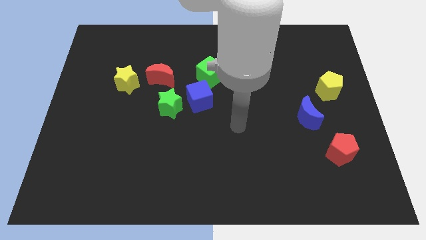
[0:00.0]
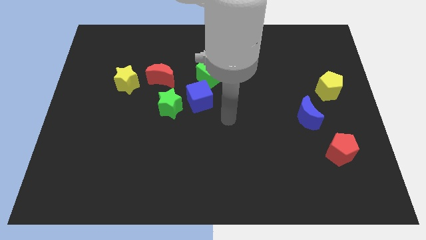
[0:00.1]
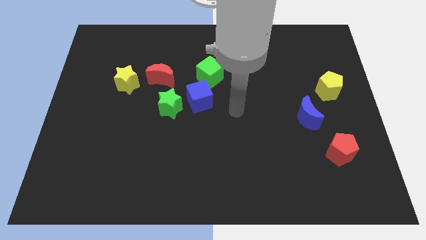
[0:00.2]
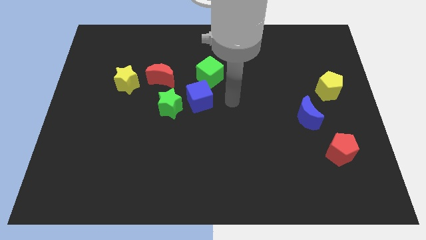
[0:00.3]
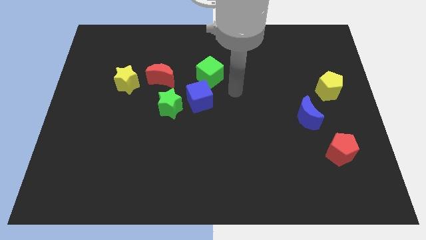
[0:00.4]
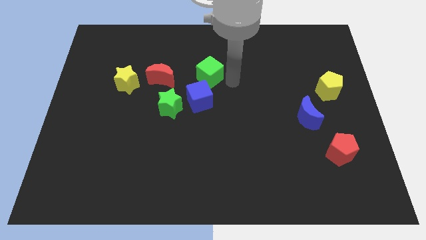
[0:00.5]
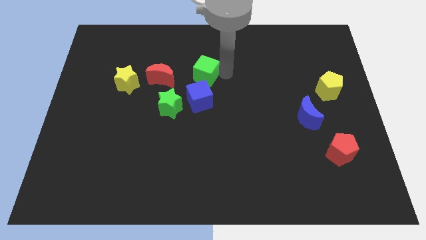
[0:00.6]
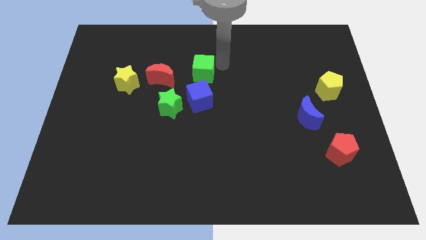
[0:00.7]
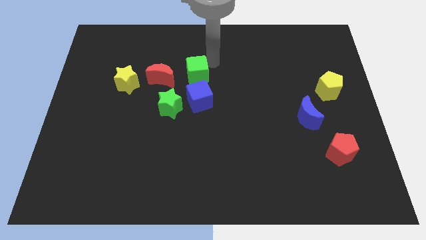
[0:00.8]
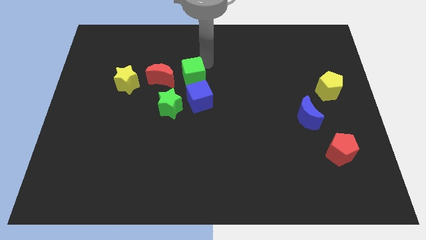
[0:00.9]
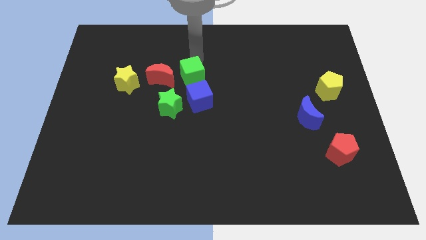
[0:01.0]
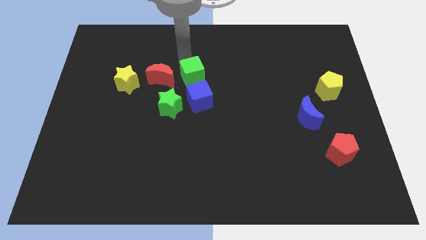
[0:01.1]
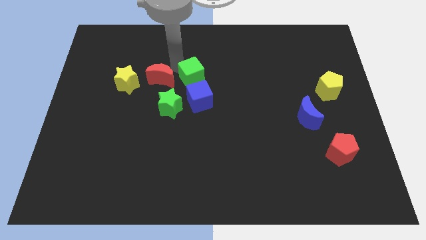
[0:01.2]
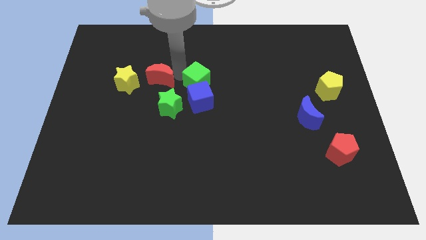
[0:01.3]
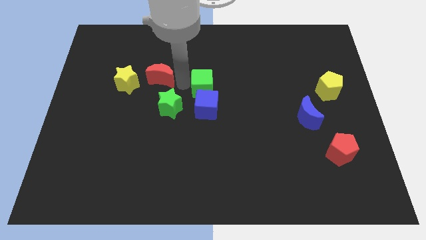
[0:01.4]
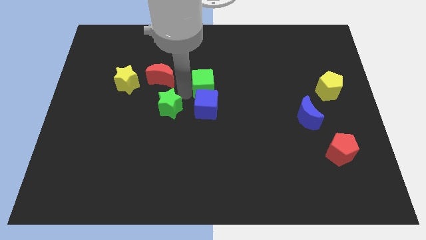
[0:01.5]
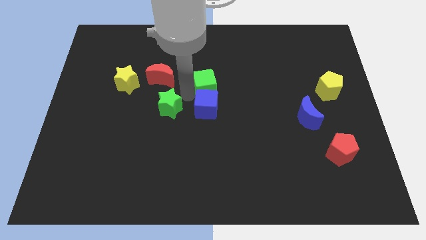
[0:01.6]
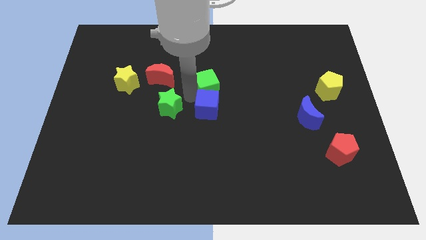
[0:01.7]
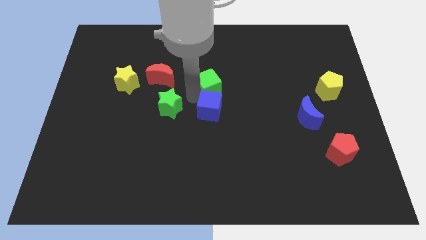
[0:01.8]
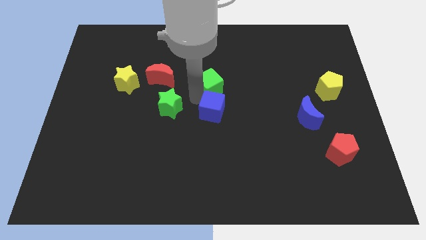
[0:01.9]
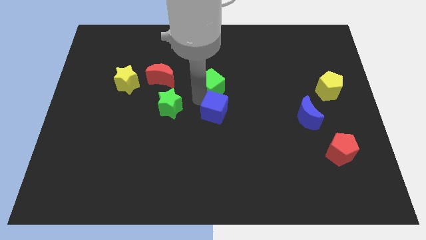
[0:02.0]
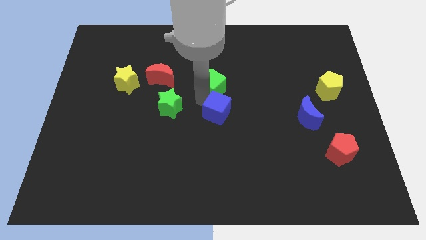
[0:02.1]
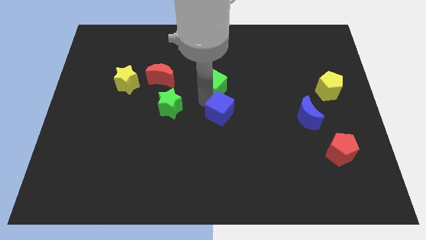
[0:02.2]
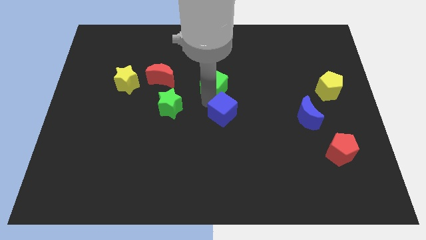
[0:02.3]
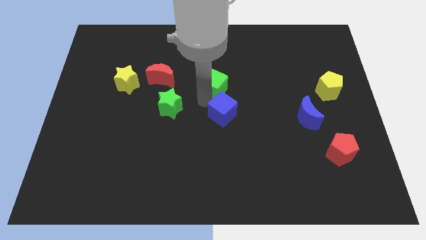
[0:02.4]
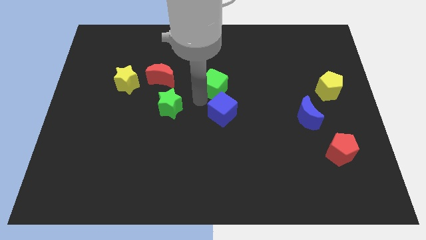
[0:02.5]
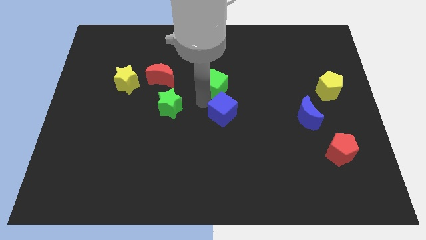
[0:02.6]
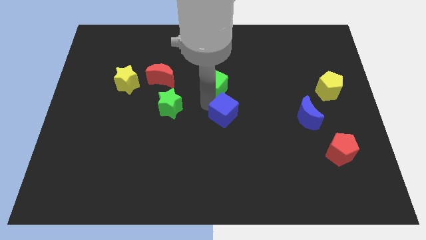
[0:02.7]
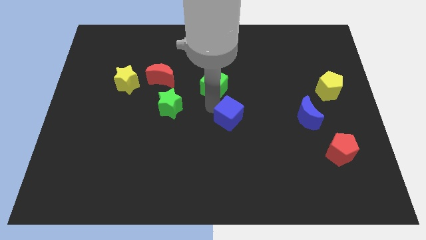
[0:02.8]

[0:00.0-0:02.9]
separate the blue cube from the green star and green cube

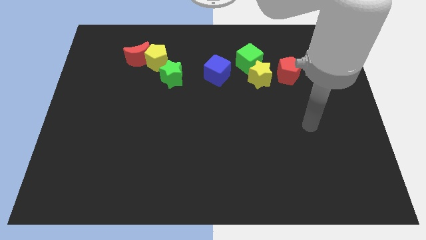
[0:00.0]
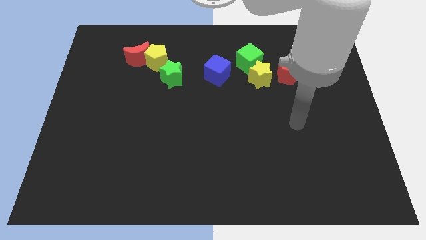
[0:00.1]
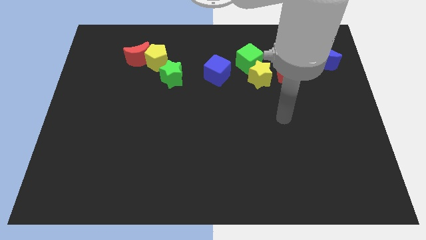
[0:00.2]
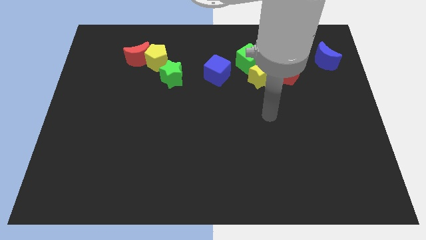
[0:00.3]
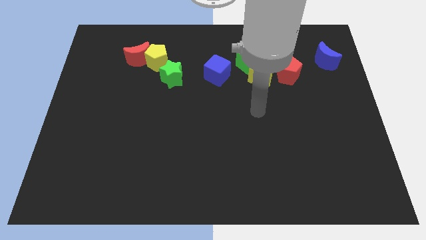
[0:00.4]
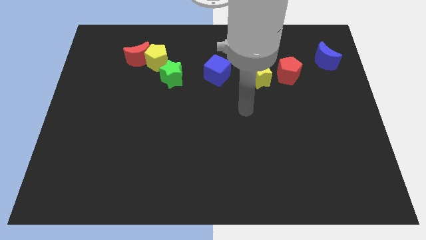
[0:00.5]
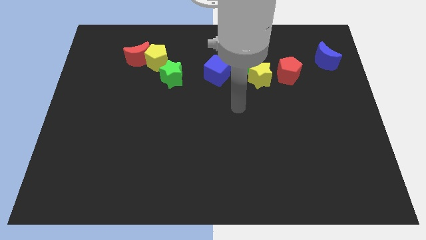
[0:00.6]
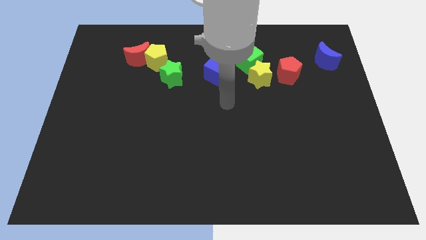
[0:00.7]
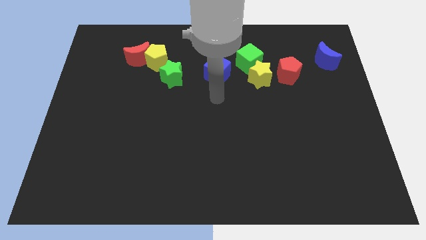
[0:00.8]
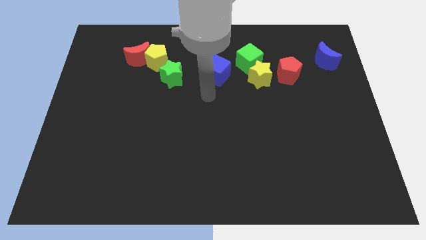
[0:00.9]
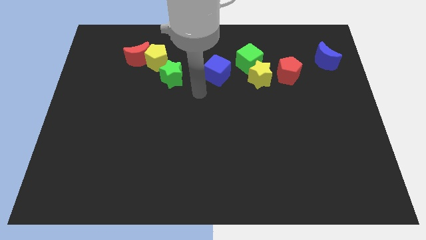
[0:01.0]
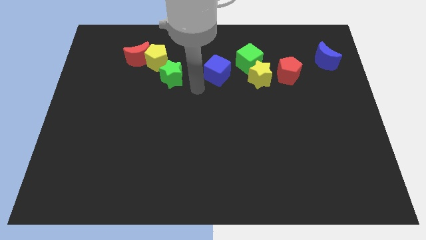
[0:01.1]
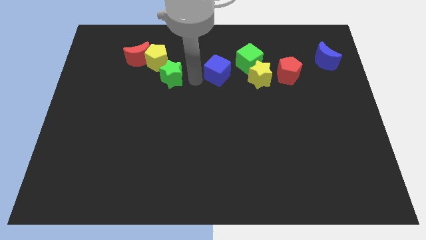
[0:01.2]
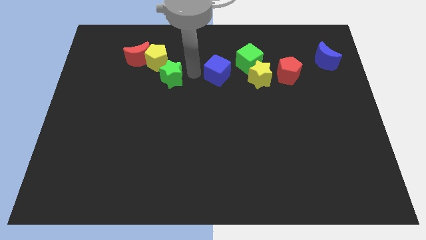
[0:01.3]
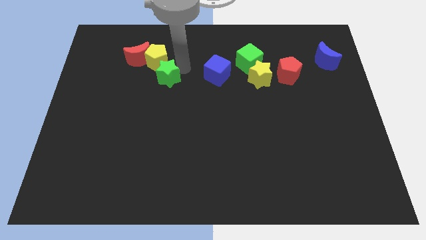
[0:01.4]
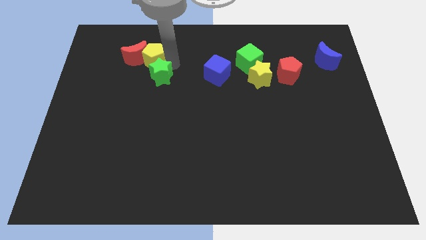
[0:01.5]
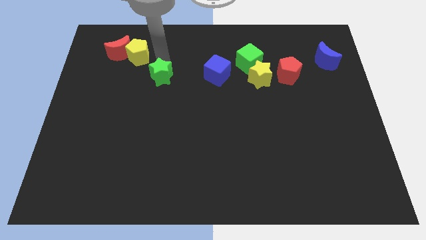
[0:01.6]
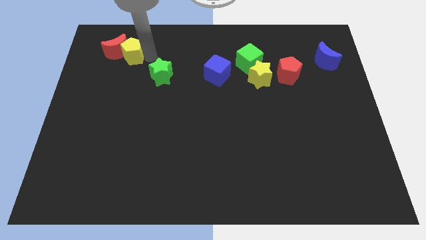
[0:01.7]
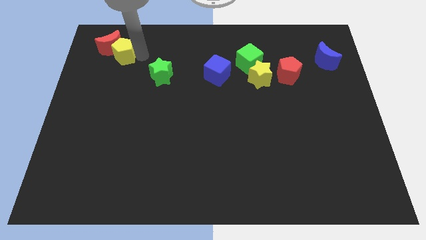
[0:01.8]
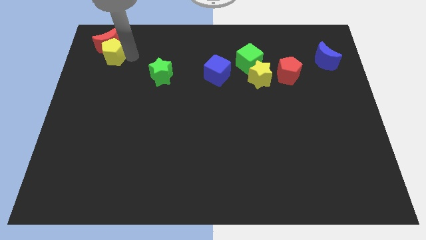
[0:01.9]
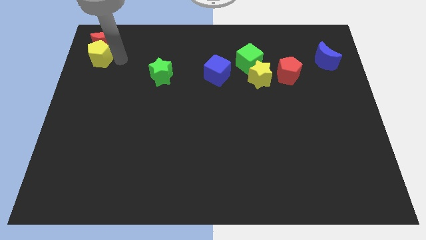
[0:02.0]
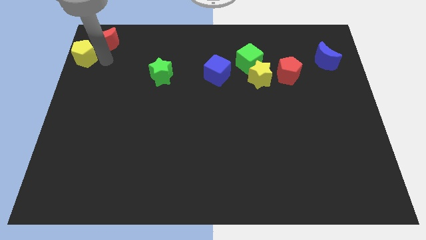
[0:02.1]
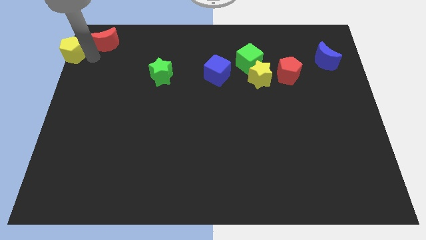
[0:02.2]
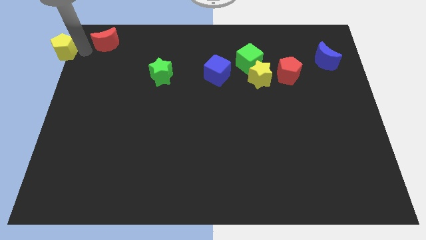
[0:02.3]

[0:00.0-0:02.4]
separate the red moon from the yellow pentagon

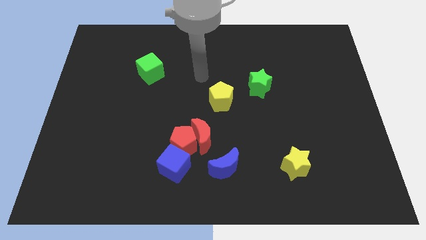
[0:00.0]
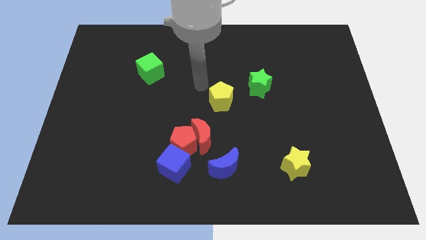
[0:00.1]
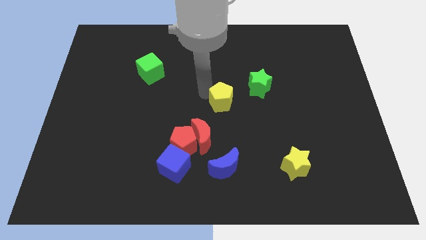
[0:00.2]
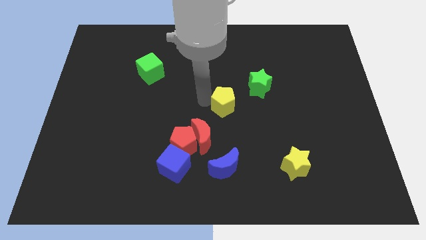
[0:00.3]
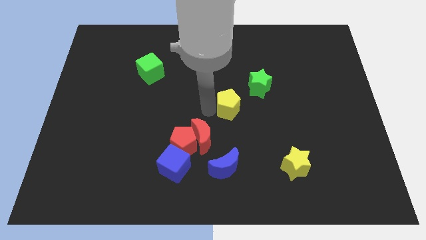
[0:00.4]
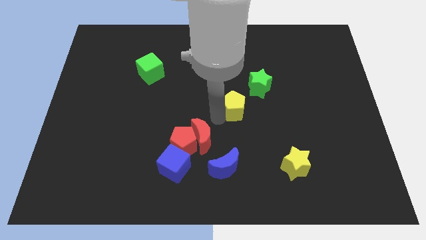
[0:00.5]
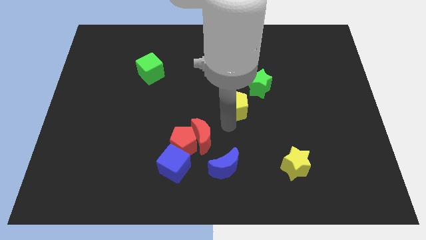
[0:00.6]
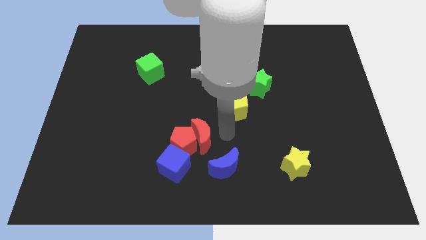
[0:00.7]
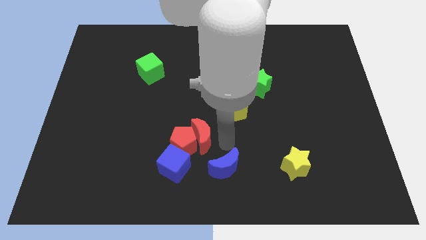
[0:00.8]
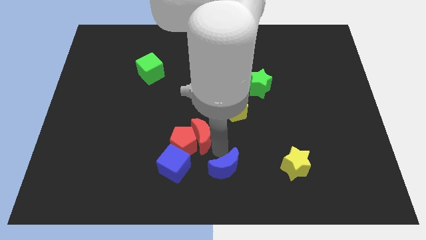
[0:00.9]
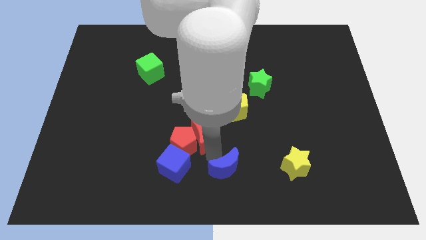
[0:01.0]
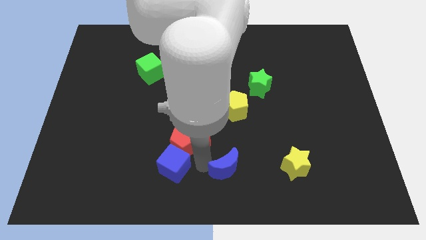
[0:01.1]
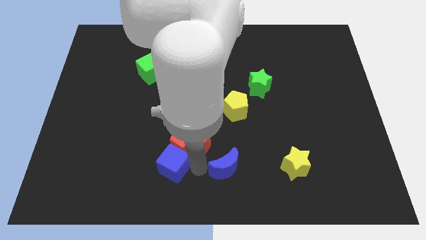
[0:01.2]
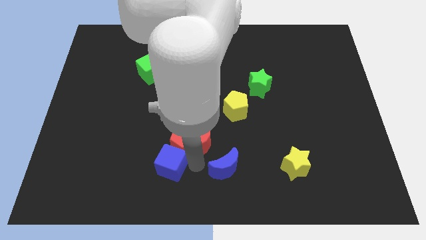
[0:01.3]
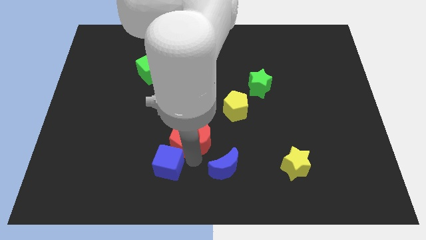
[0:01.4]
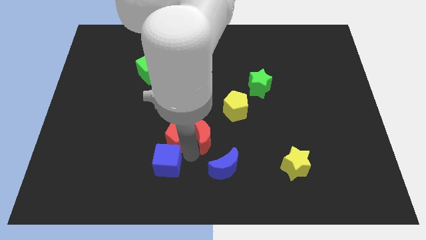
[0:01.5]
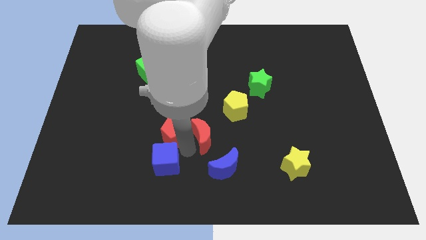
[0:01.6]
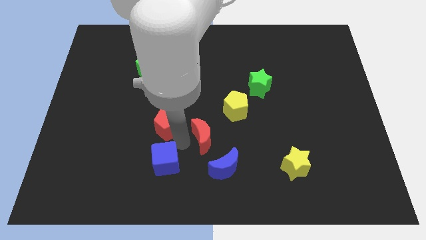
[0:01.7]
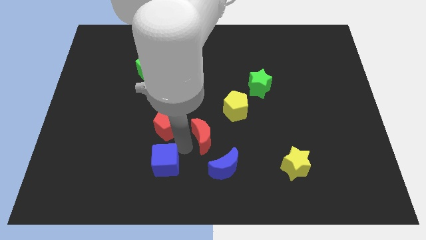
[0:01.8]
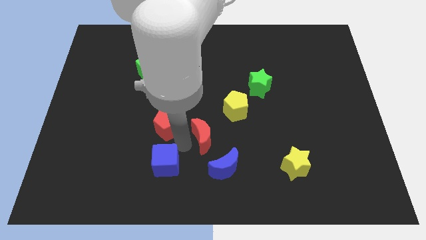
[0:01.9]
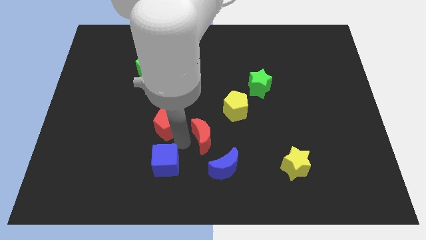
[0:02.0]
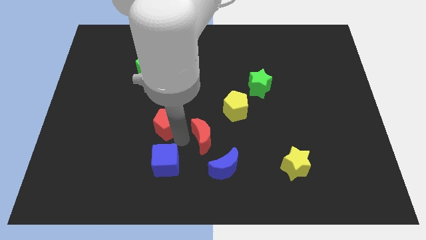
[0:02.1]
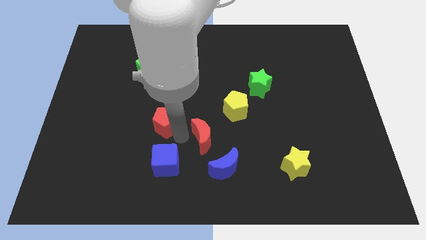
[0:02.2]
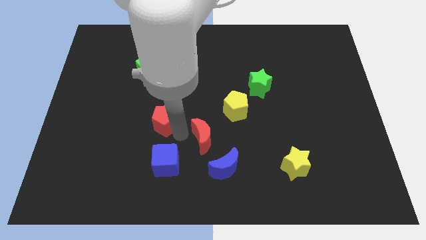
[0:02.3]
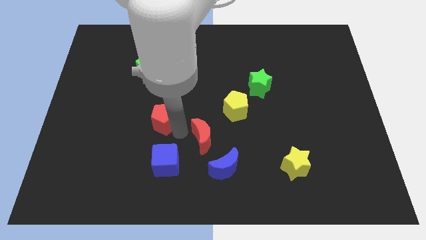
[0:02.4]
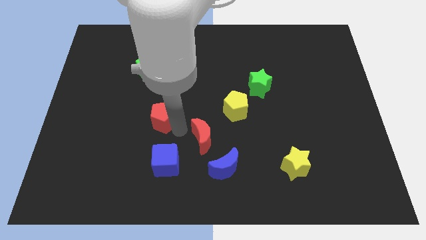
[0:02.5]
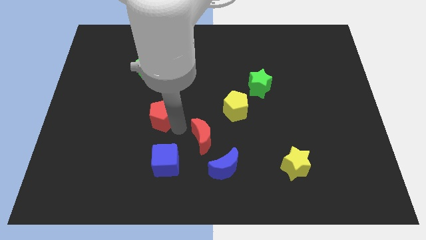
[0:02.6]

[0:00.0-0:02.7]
move the red pentagon away from the red moon and blue cube

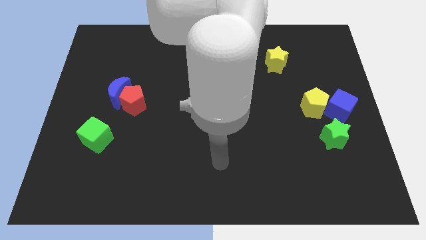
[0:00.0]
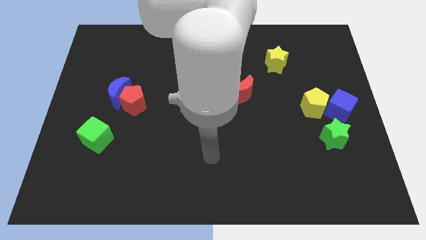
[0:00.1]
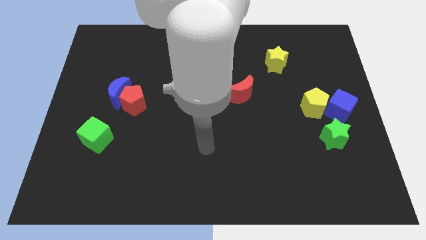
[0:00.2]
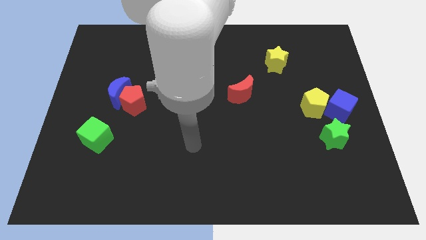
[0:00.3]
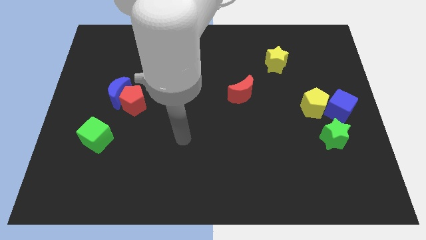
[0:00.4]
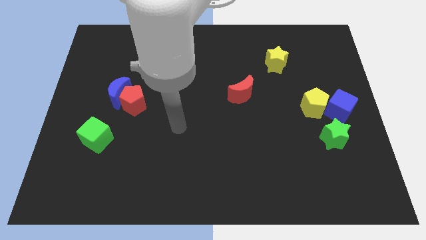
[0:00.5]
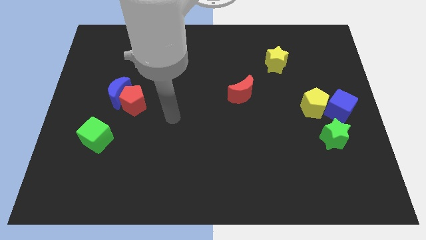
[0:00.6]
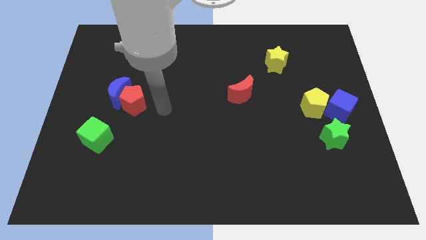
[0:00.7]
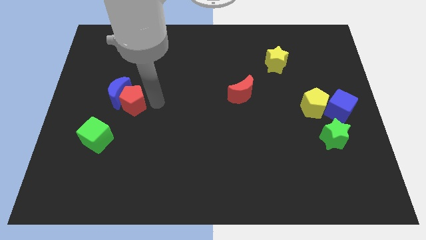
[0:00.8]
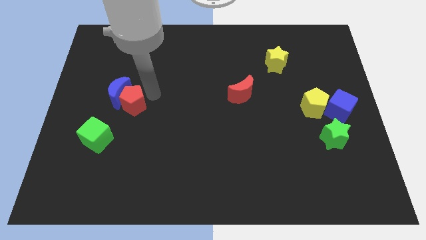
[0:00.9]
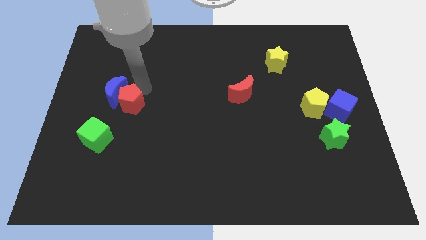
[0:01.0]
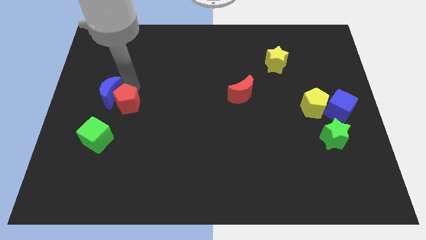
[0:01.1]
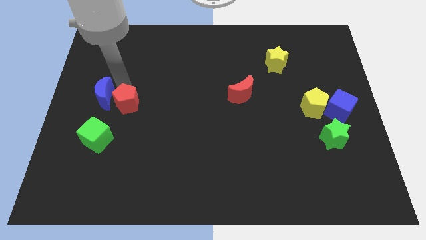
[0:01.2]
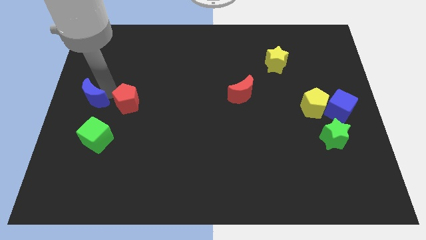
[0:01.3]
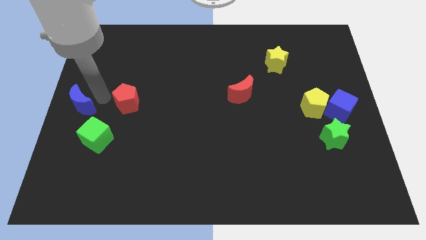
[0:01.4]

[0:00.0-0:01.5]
pull the red pentagon apart from the blue moon
